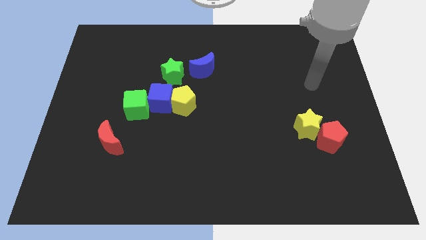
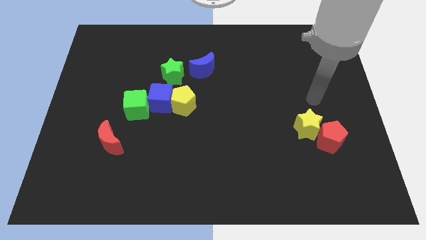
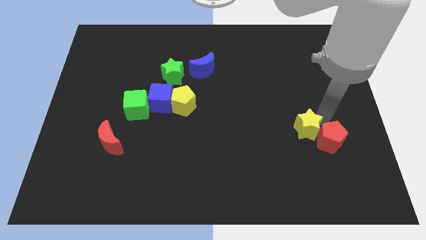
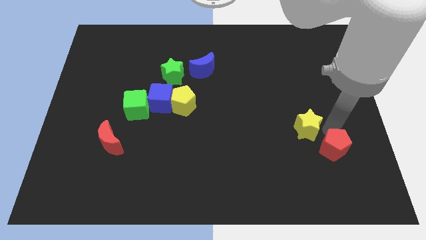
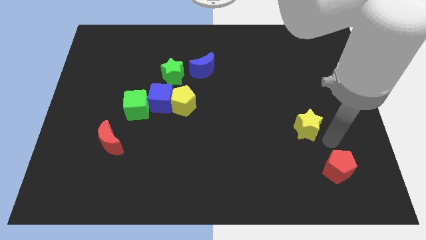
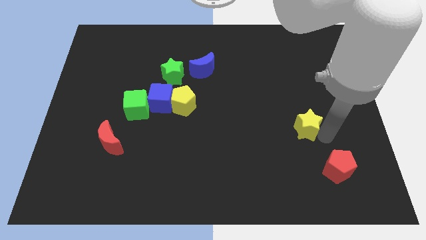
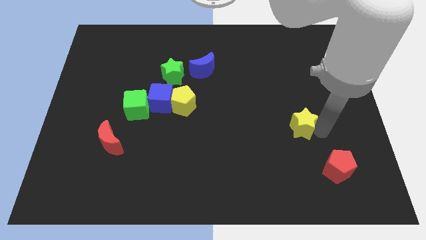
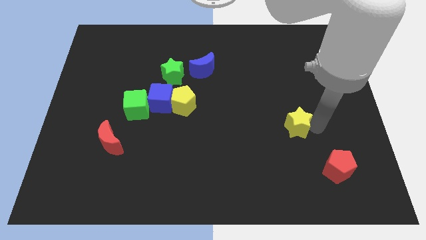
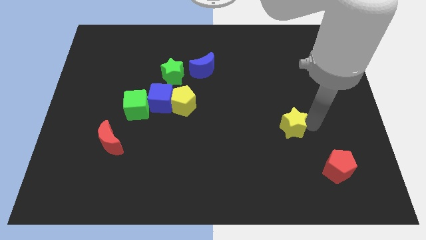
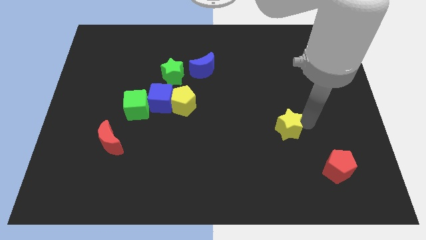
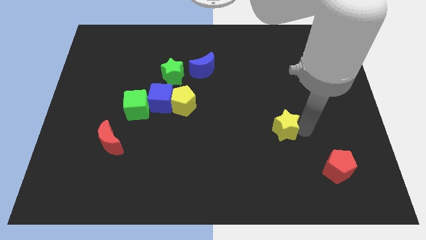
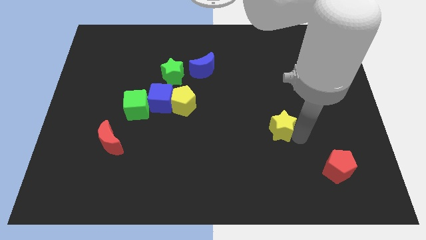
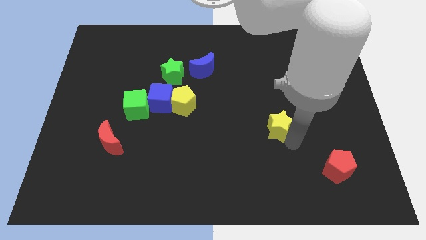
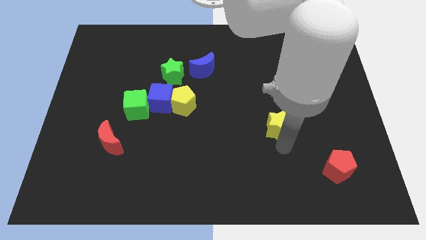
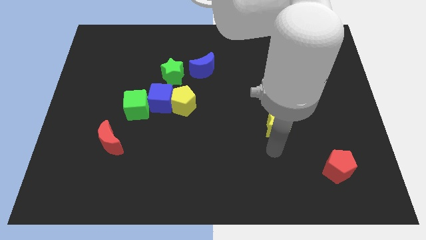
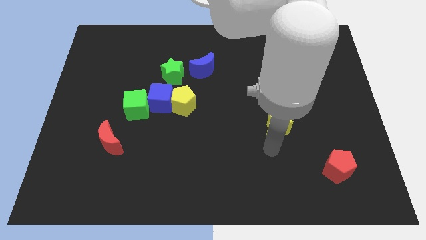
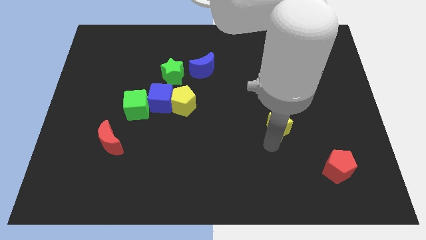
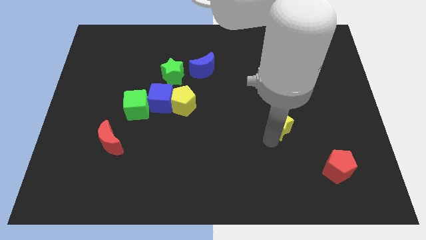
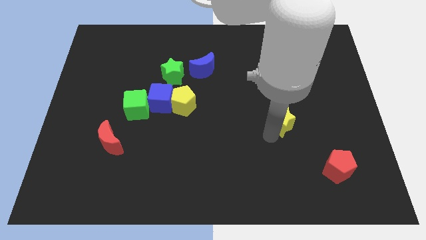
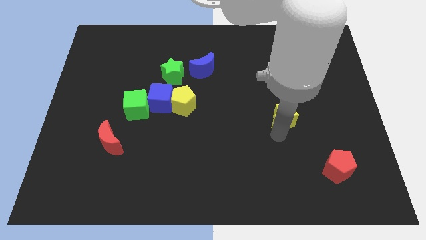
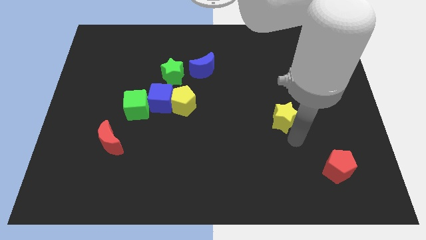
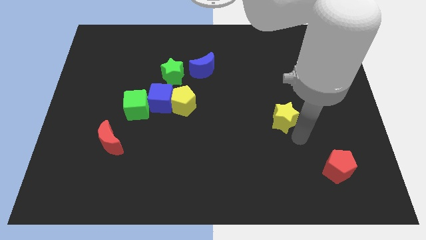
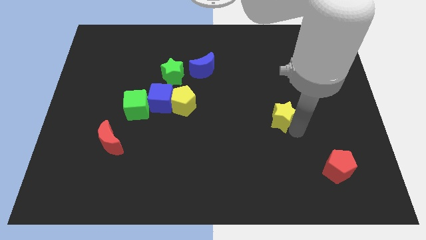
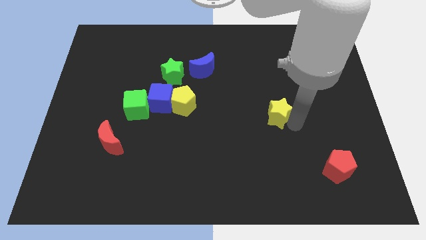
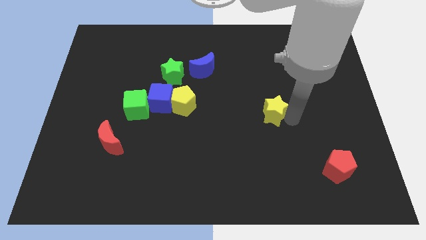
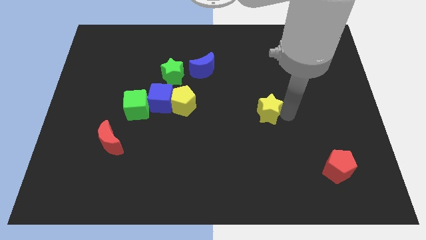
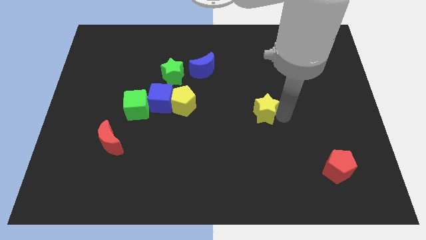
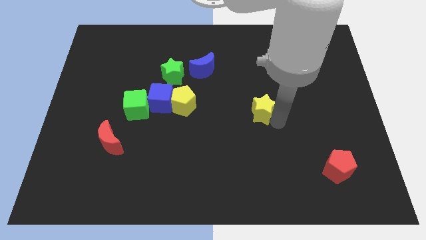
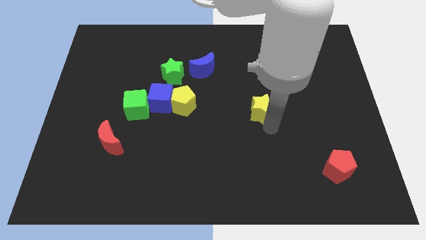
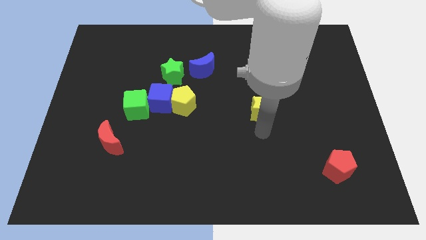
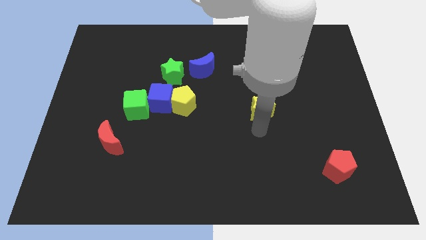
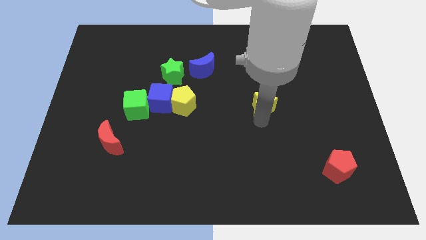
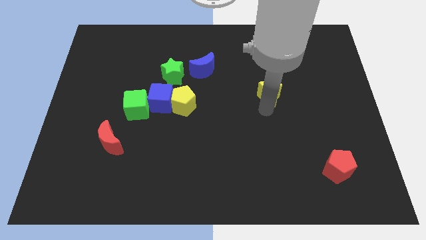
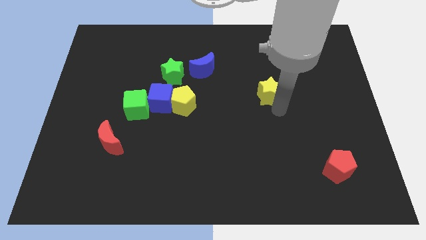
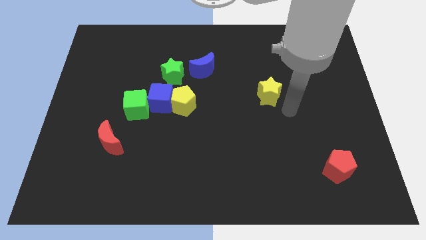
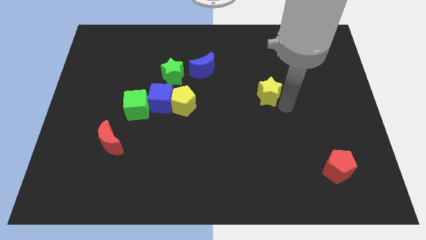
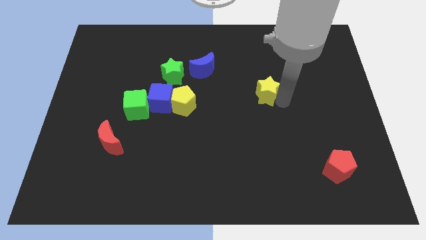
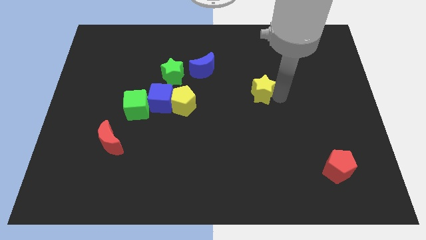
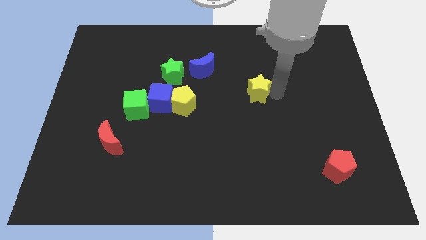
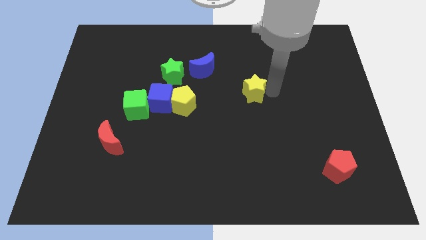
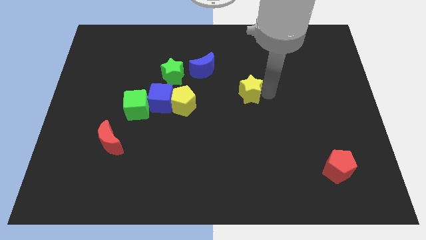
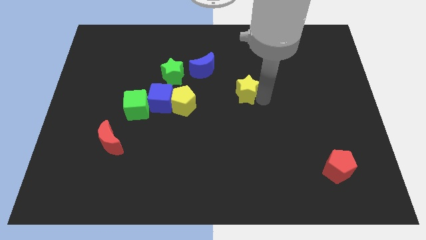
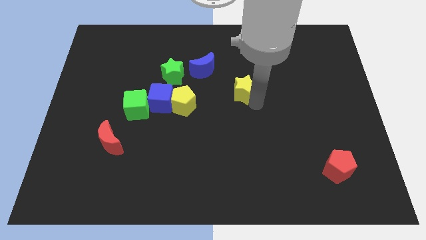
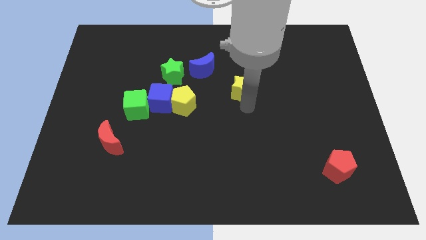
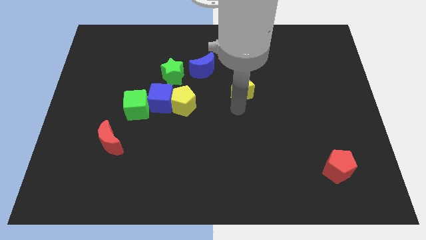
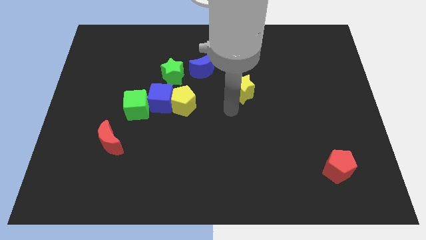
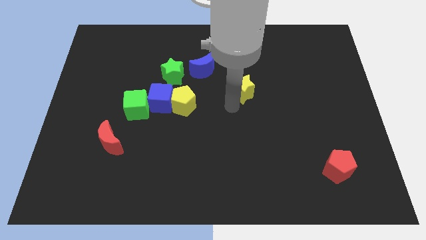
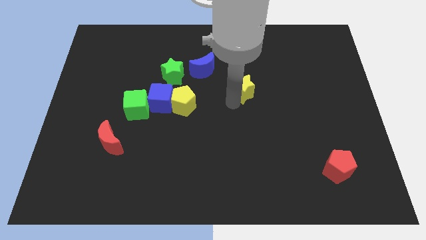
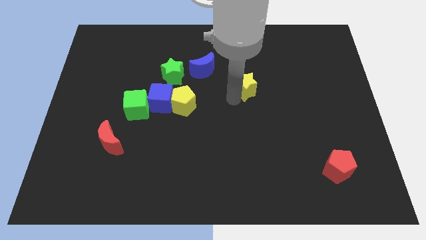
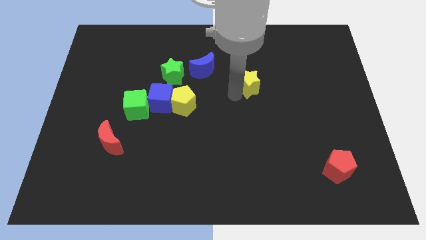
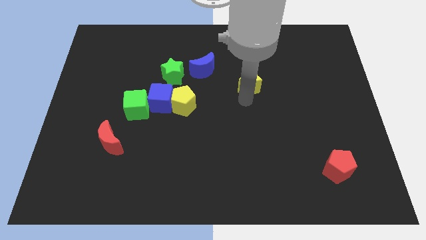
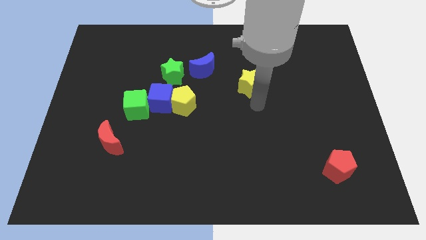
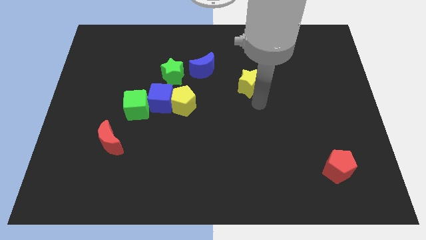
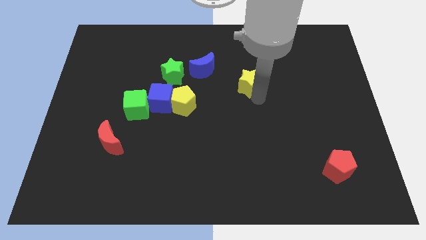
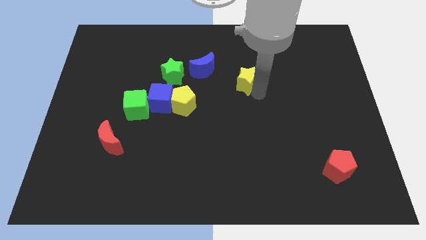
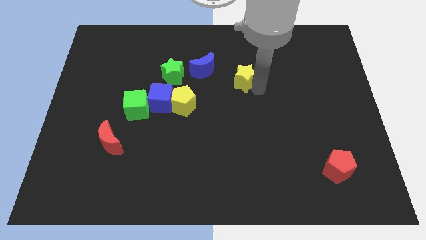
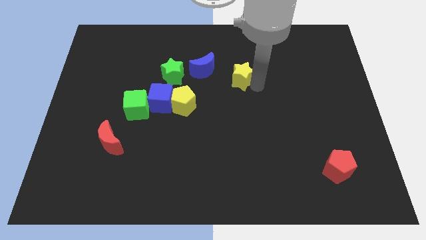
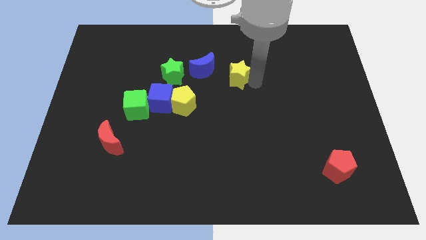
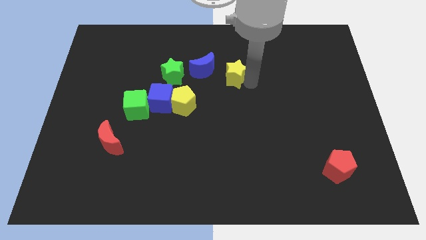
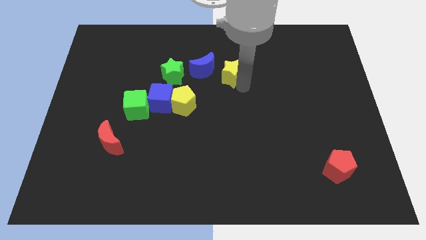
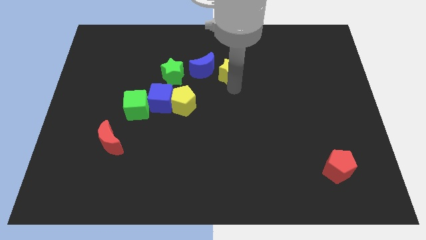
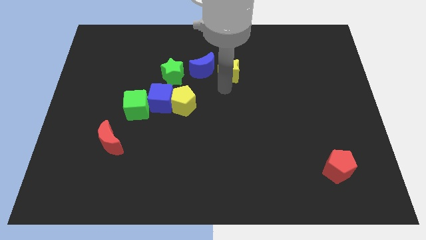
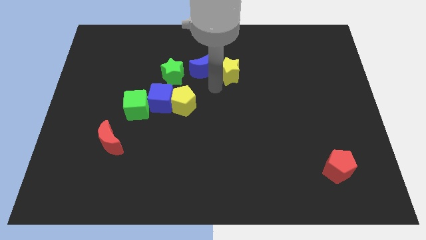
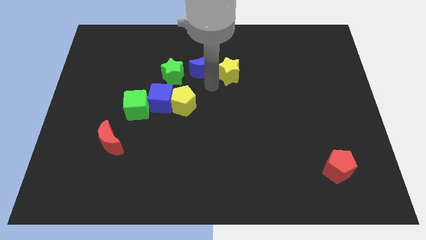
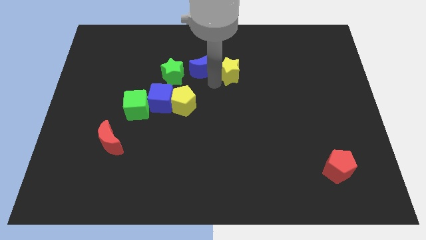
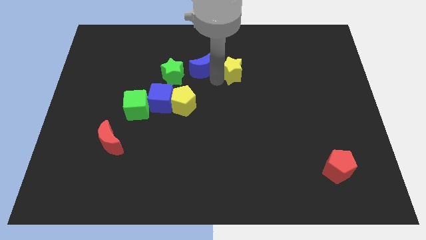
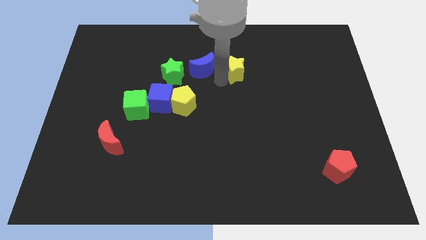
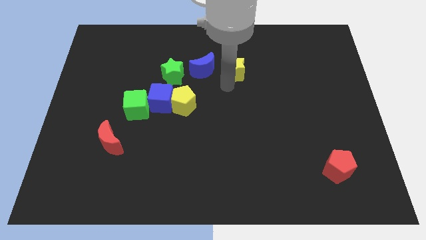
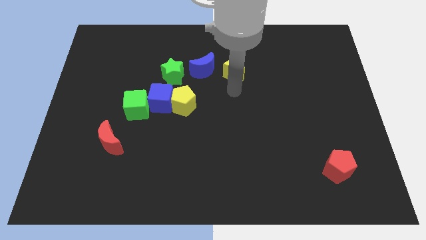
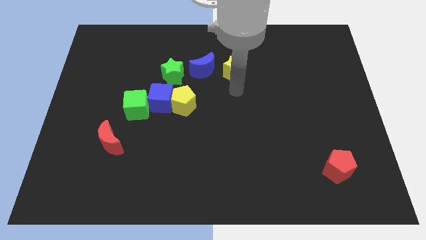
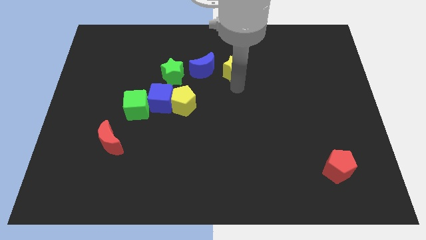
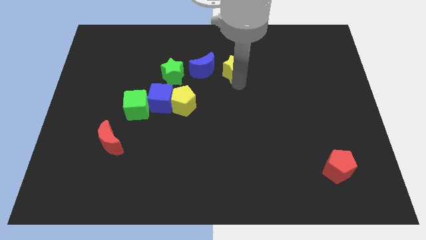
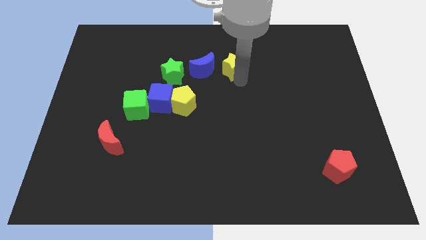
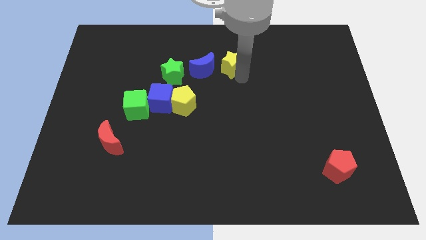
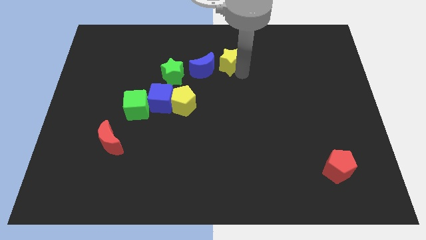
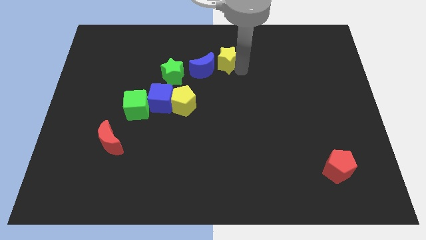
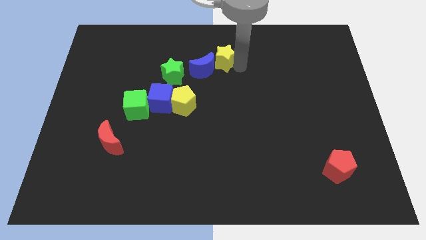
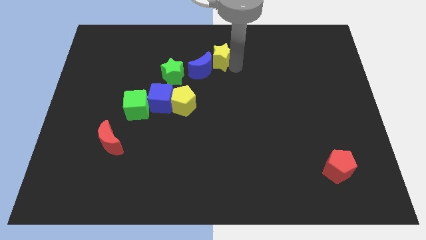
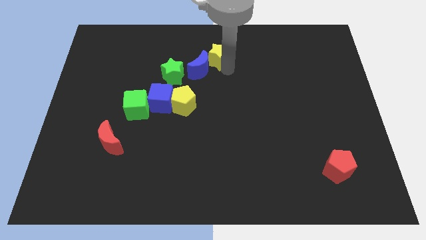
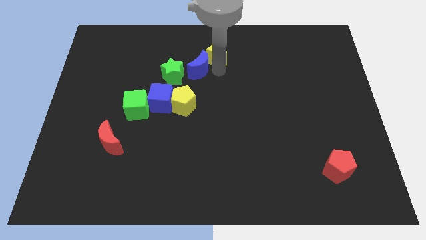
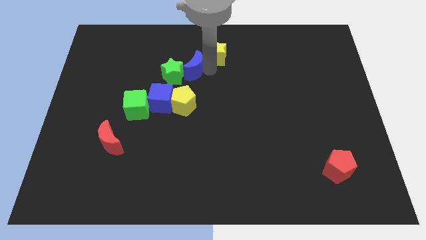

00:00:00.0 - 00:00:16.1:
push the yellow star to the towards your base
